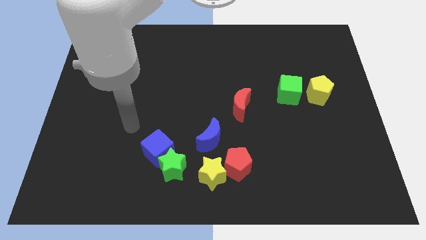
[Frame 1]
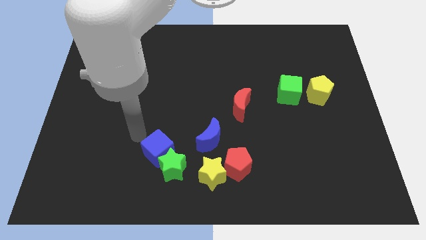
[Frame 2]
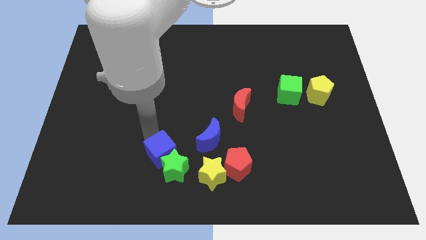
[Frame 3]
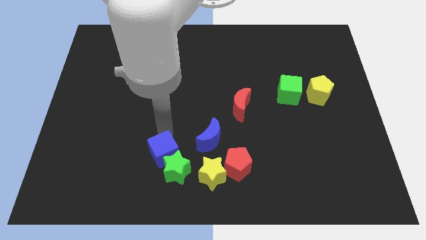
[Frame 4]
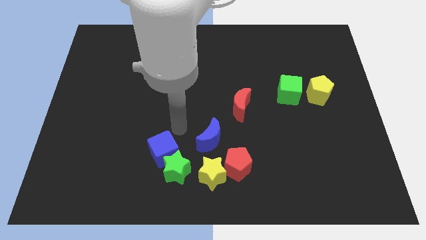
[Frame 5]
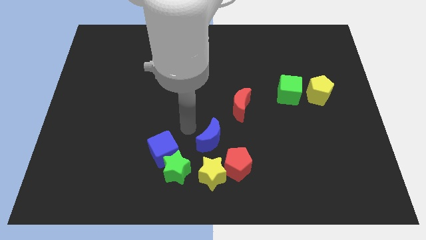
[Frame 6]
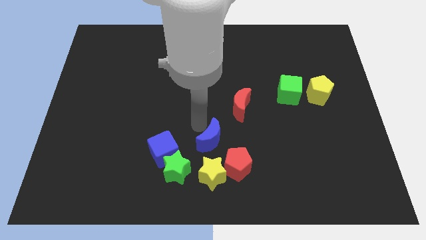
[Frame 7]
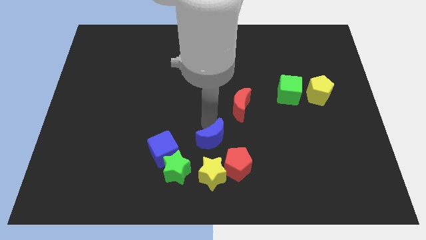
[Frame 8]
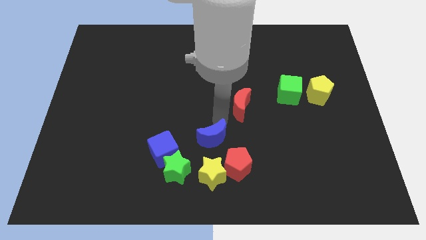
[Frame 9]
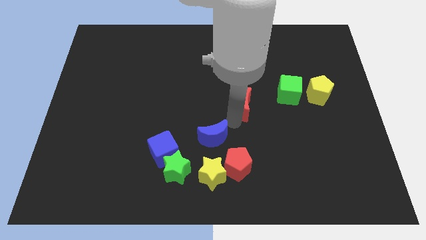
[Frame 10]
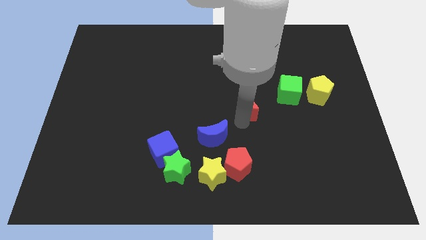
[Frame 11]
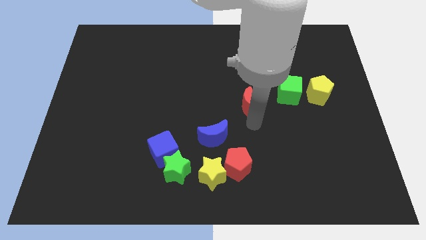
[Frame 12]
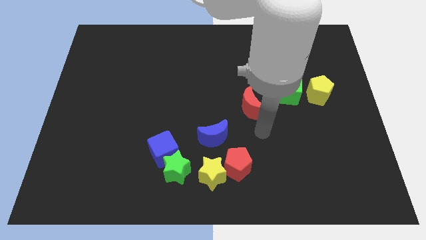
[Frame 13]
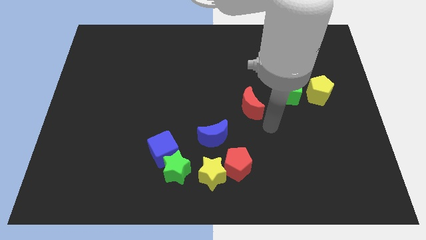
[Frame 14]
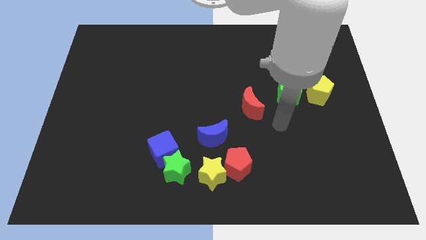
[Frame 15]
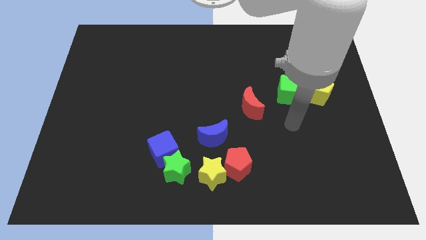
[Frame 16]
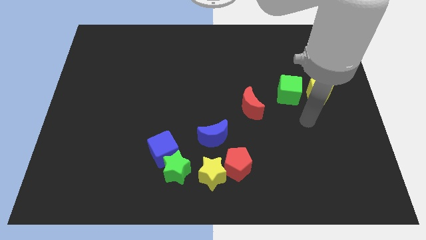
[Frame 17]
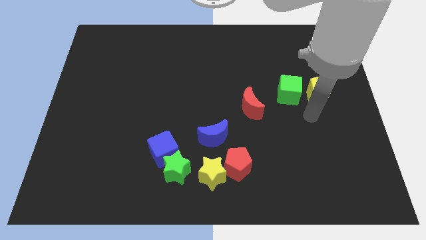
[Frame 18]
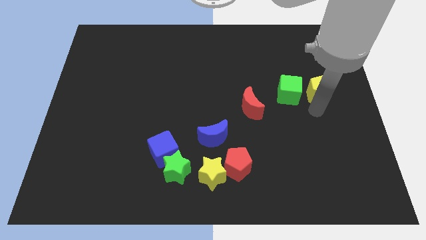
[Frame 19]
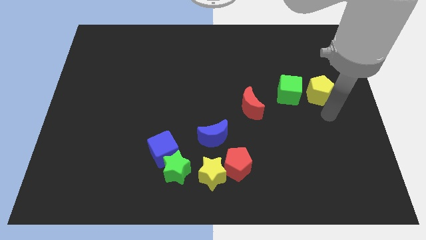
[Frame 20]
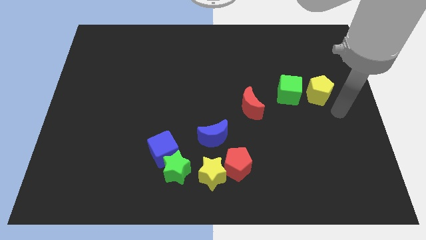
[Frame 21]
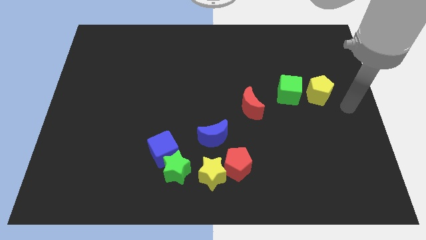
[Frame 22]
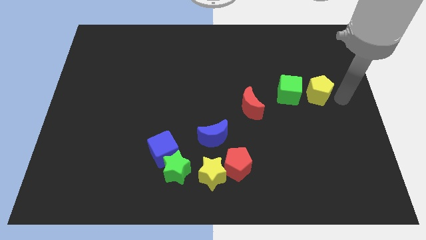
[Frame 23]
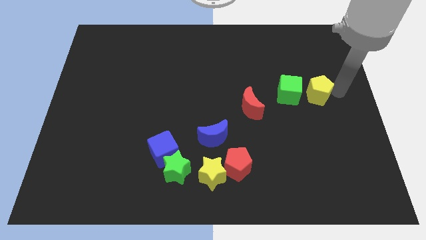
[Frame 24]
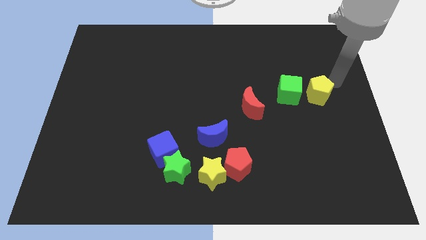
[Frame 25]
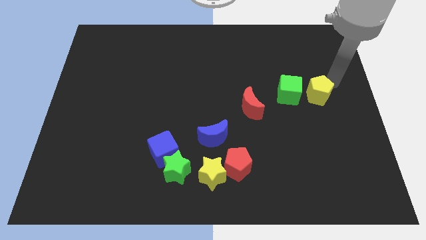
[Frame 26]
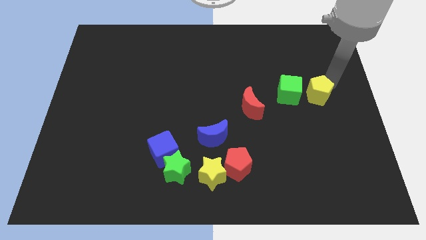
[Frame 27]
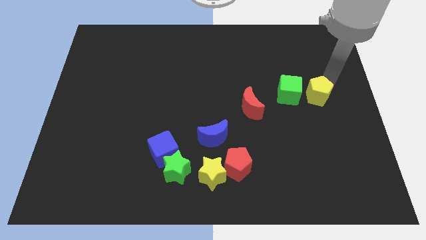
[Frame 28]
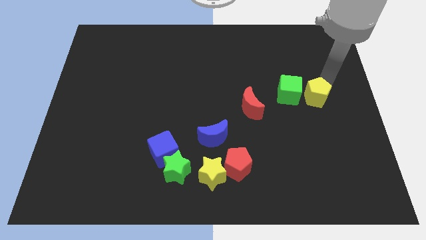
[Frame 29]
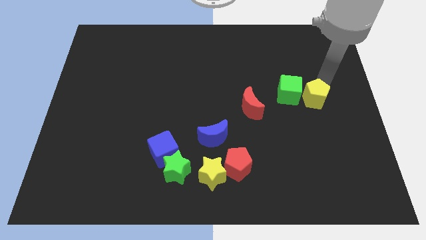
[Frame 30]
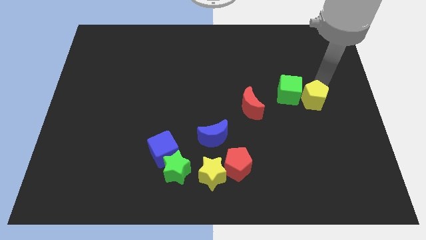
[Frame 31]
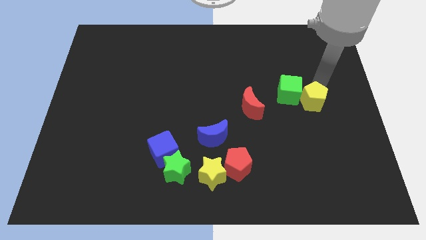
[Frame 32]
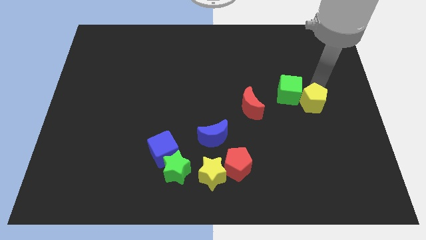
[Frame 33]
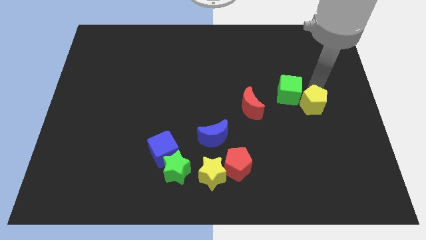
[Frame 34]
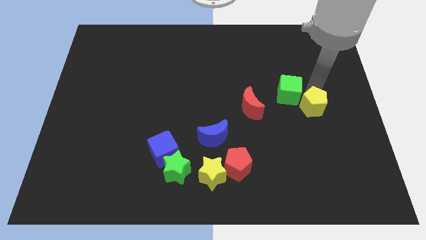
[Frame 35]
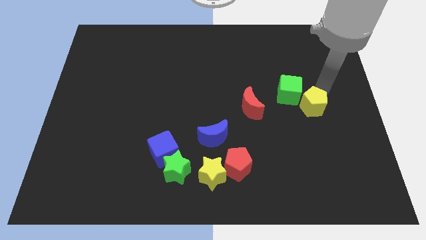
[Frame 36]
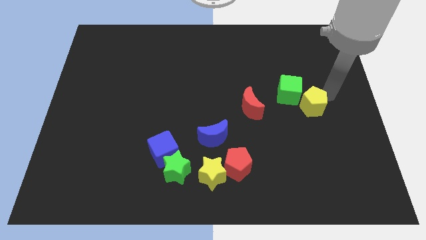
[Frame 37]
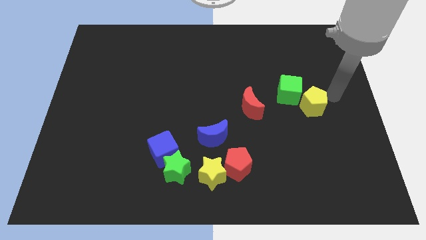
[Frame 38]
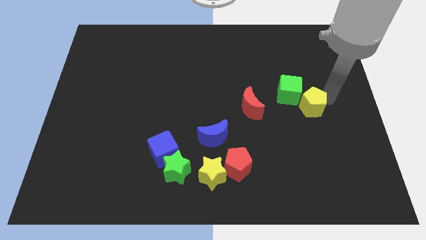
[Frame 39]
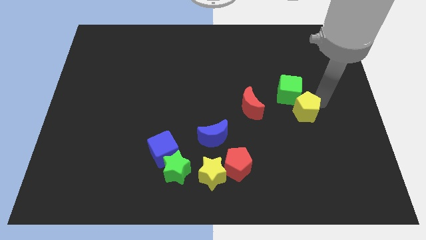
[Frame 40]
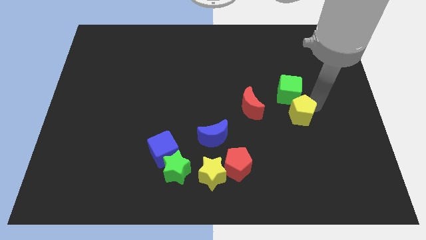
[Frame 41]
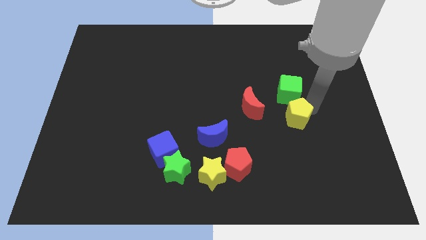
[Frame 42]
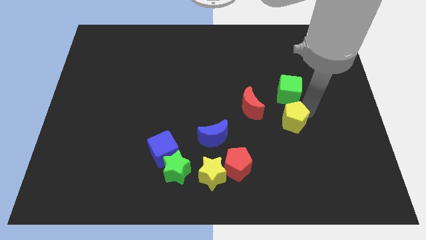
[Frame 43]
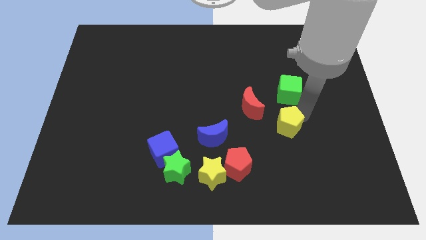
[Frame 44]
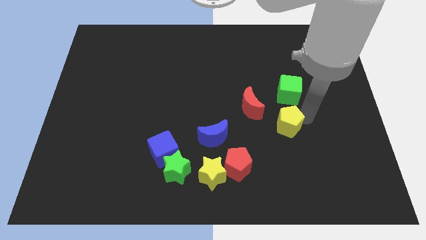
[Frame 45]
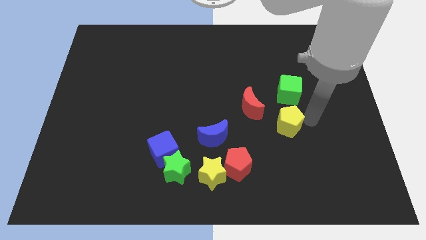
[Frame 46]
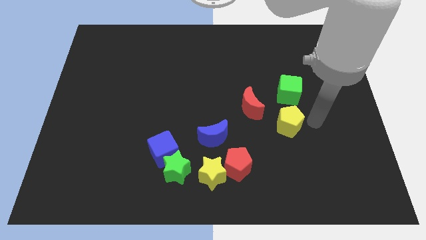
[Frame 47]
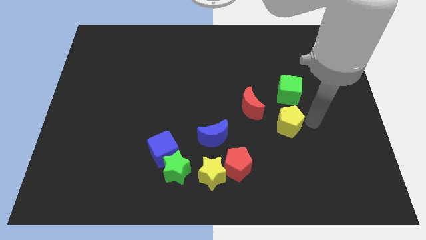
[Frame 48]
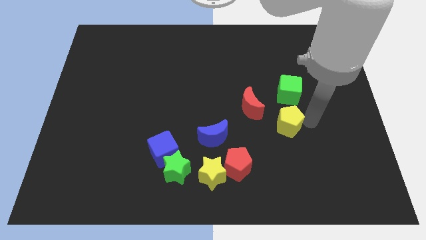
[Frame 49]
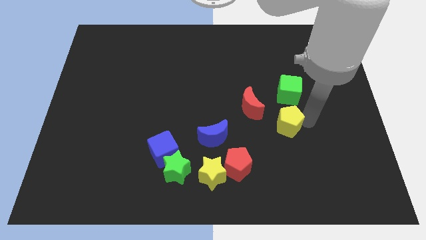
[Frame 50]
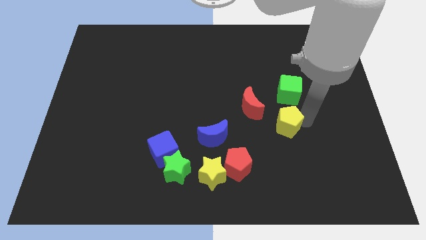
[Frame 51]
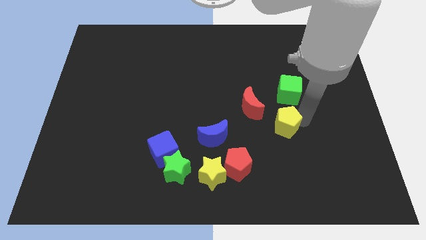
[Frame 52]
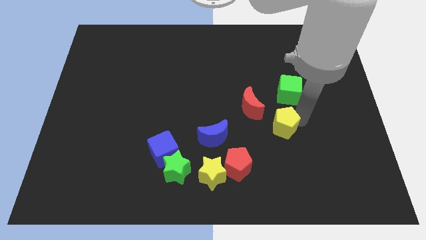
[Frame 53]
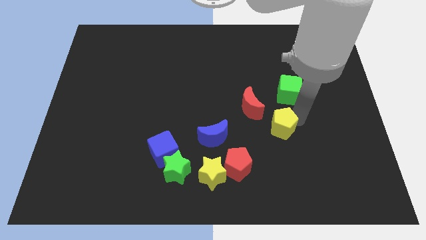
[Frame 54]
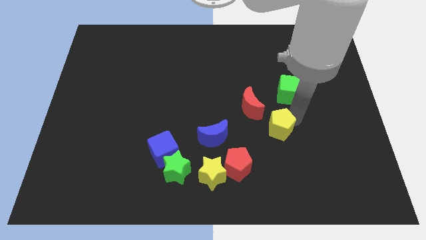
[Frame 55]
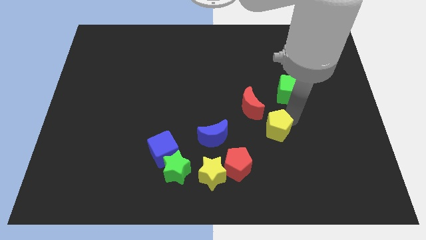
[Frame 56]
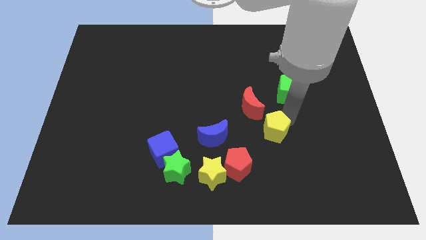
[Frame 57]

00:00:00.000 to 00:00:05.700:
push the yellow pentagon to the bottom side of the red moon

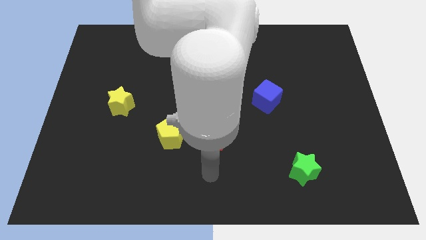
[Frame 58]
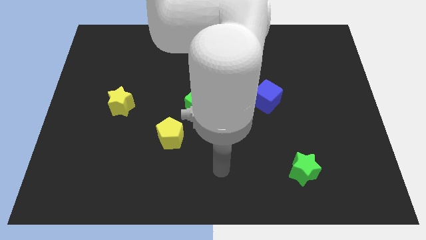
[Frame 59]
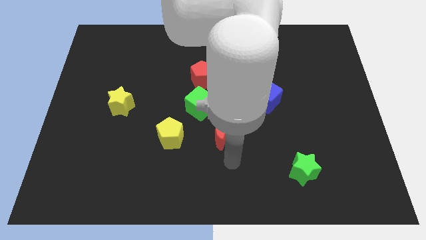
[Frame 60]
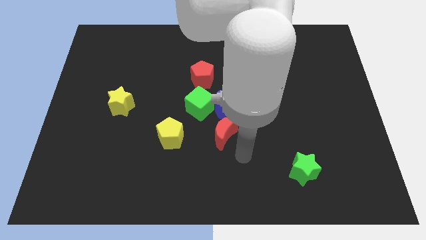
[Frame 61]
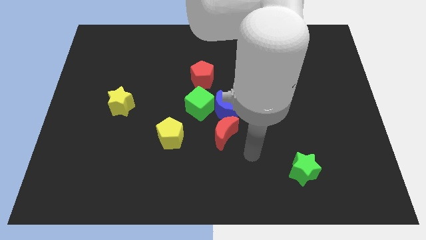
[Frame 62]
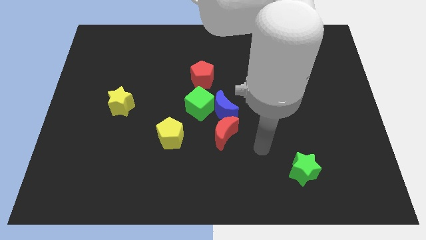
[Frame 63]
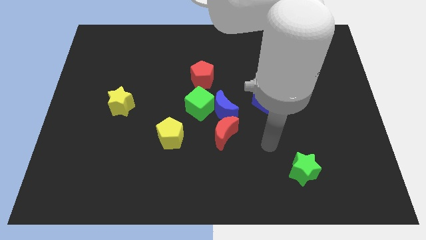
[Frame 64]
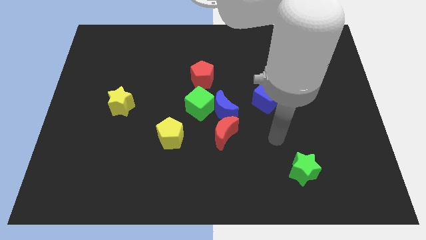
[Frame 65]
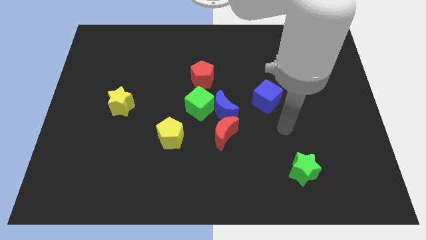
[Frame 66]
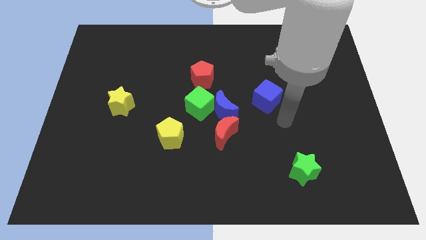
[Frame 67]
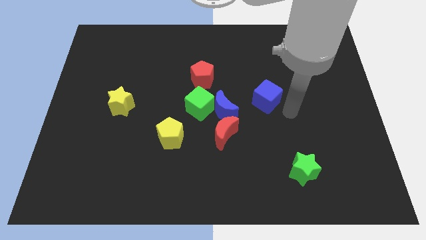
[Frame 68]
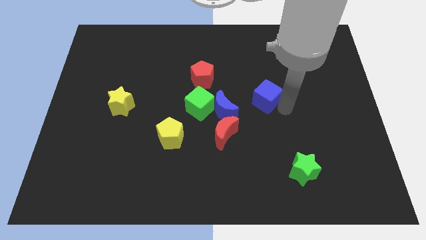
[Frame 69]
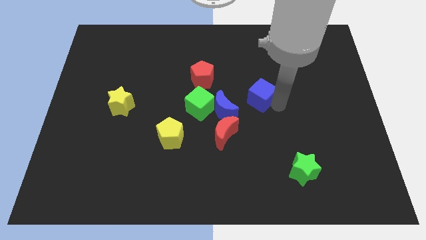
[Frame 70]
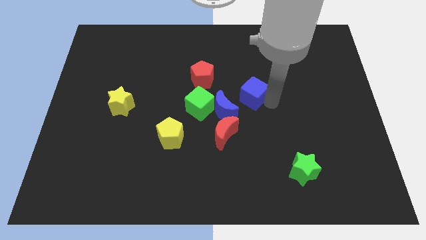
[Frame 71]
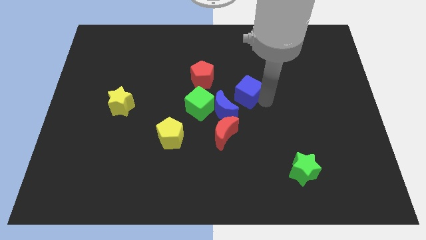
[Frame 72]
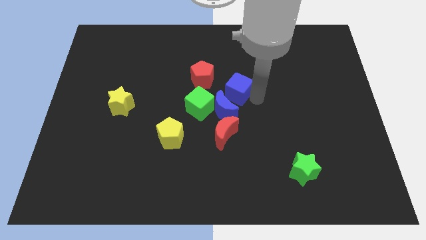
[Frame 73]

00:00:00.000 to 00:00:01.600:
push the blue cube to the top of the blue moon
